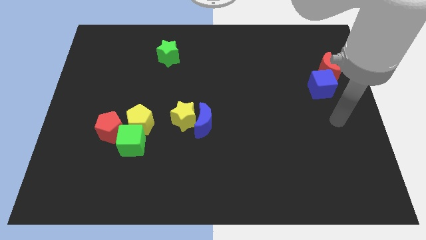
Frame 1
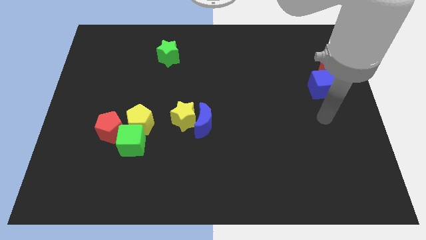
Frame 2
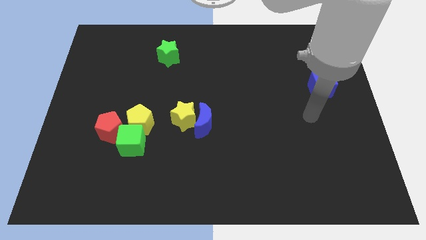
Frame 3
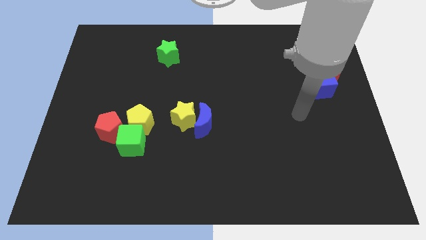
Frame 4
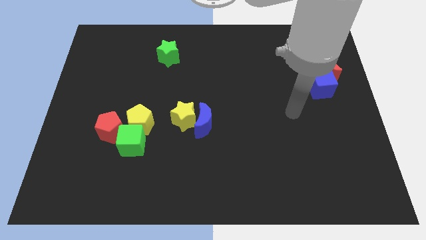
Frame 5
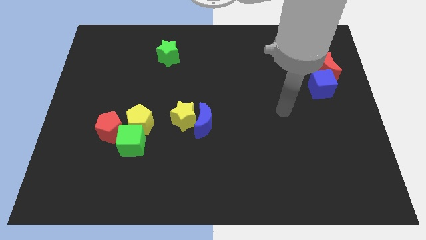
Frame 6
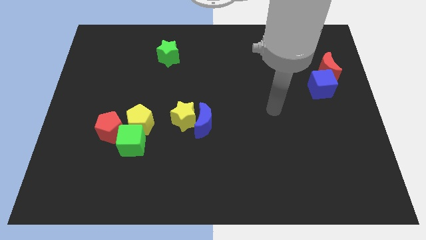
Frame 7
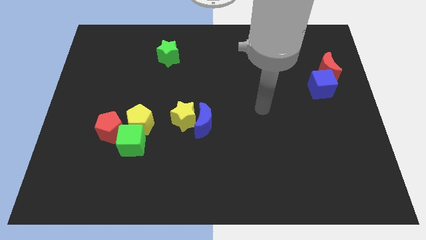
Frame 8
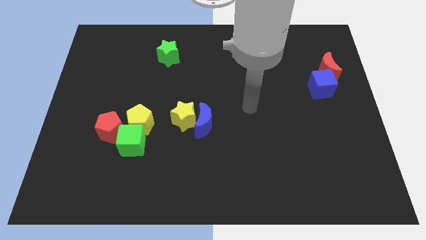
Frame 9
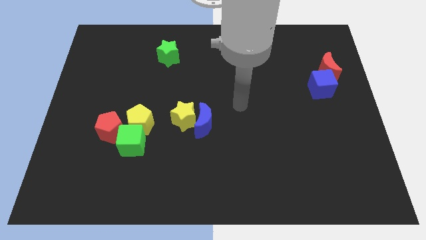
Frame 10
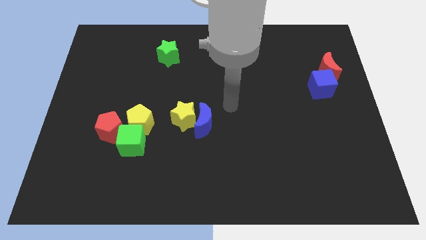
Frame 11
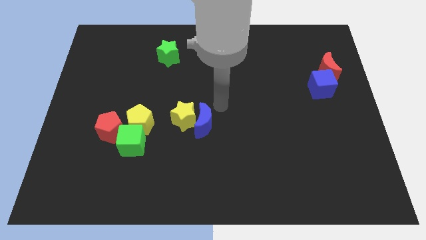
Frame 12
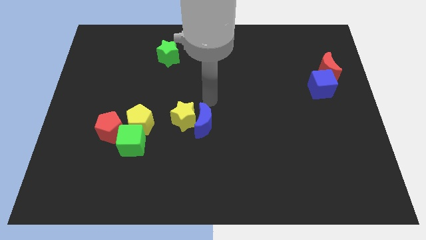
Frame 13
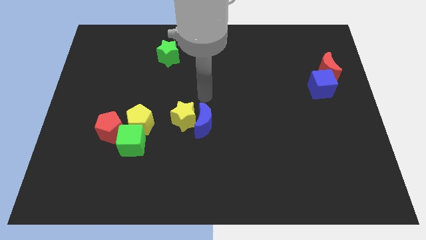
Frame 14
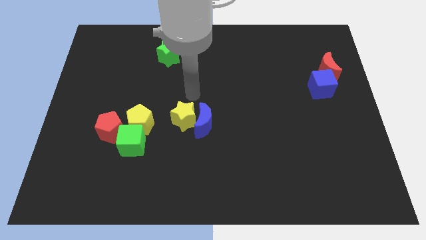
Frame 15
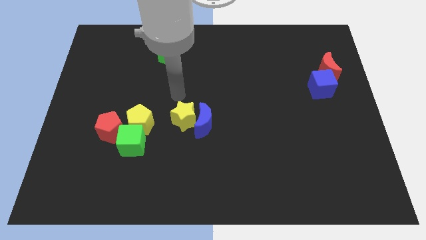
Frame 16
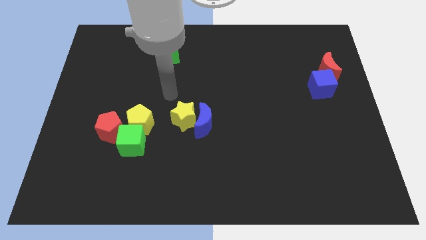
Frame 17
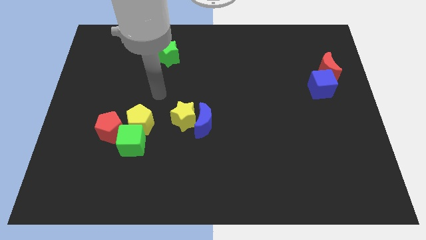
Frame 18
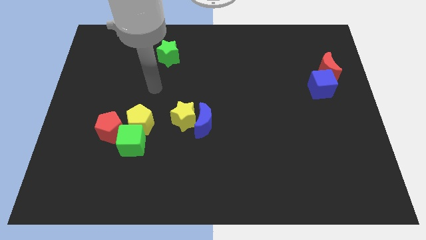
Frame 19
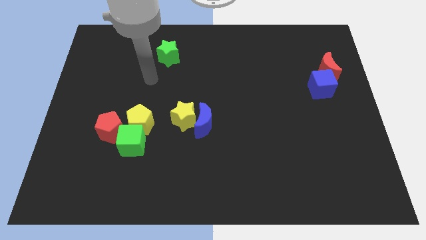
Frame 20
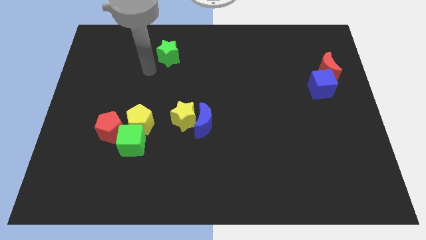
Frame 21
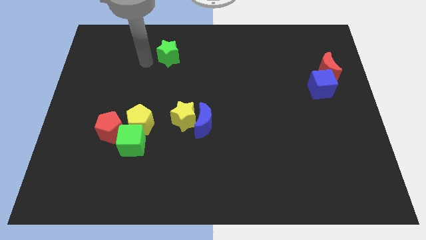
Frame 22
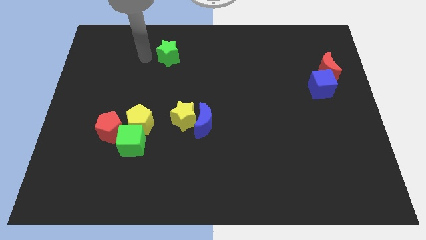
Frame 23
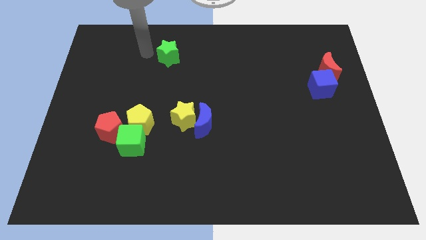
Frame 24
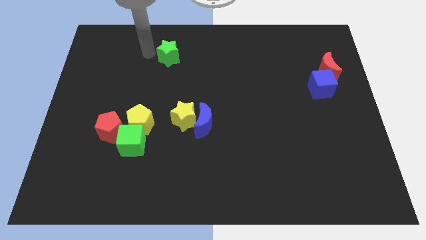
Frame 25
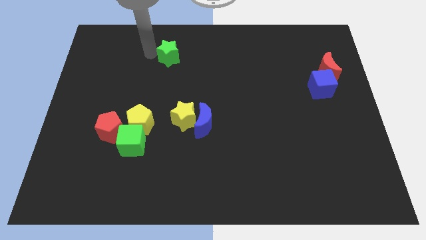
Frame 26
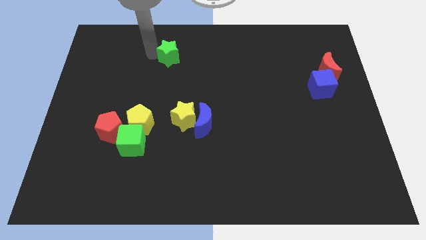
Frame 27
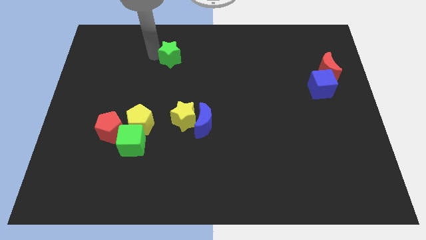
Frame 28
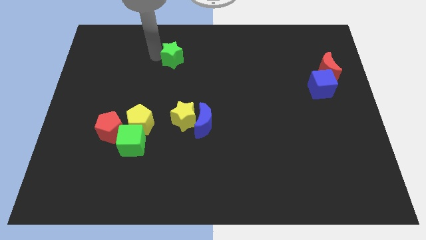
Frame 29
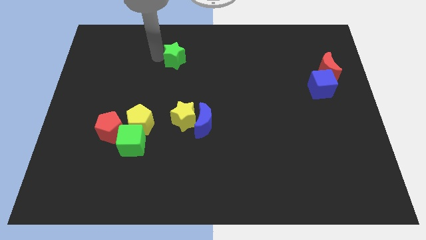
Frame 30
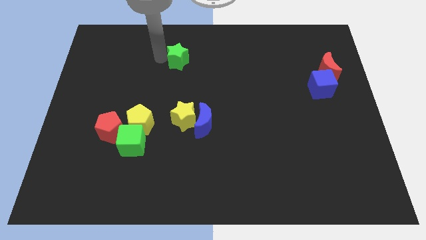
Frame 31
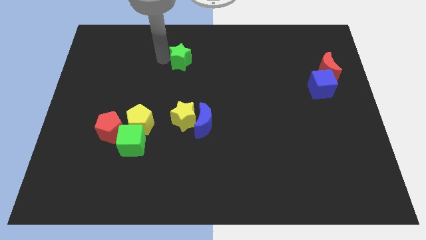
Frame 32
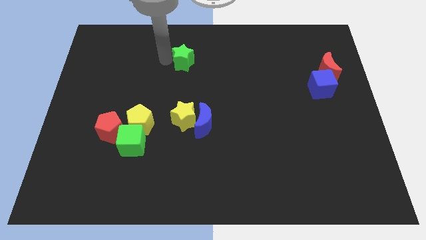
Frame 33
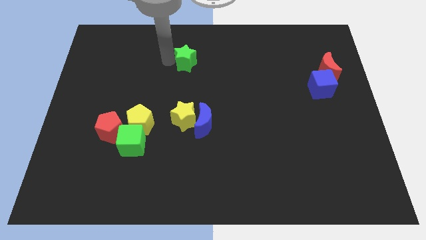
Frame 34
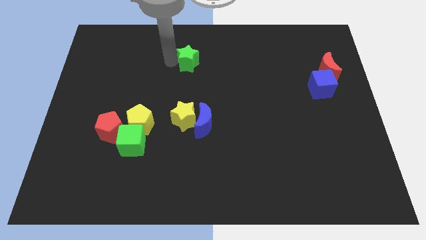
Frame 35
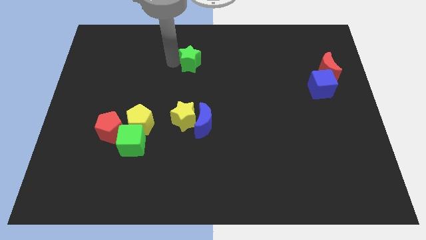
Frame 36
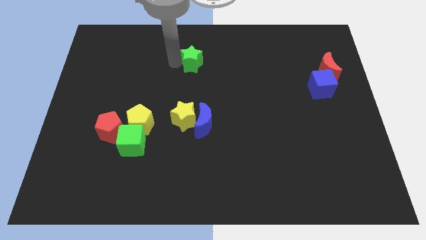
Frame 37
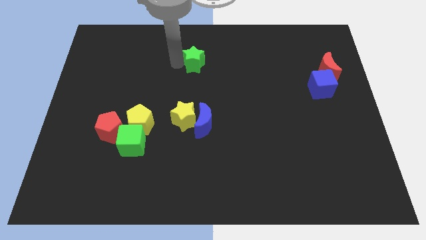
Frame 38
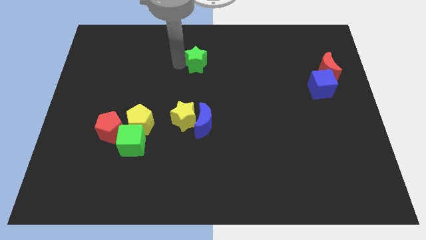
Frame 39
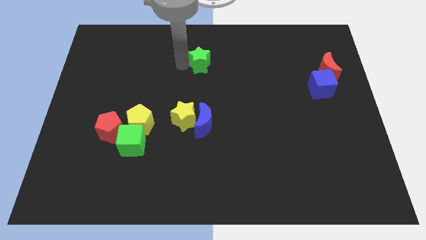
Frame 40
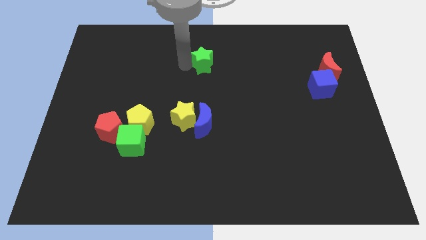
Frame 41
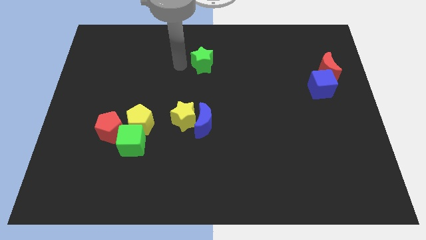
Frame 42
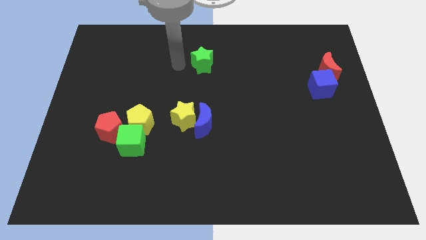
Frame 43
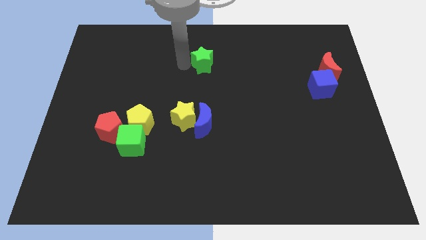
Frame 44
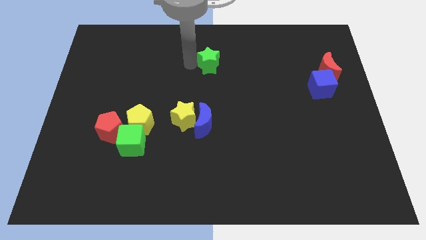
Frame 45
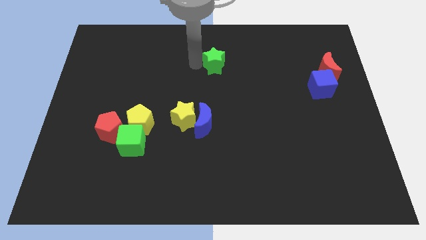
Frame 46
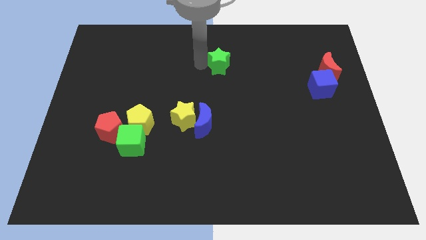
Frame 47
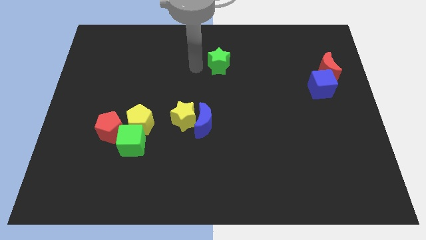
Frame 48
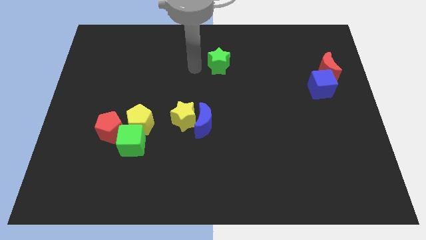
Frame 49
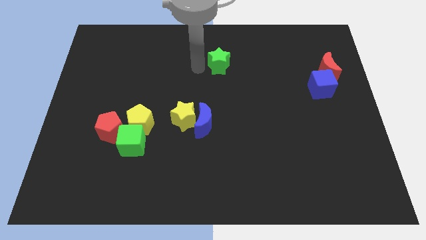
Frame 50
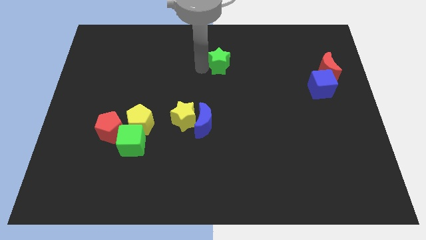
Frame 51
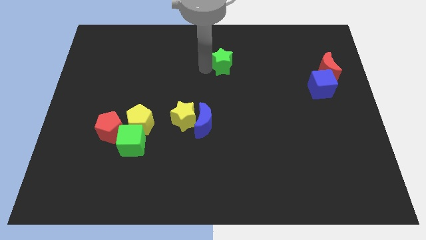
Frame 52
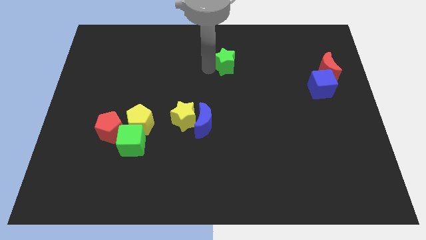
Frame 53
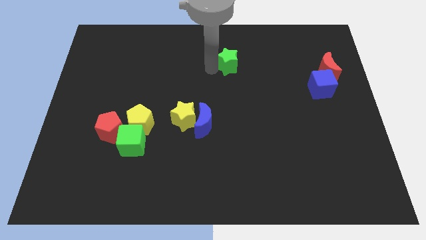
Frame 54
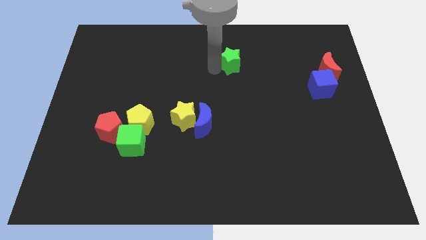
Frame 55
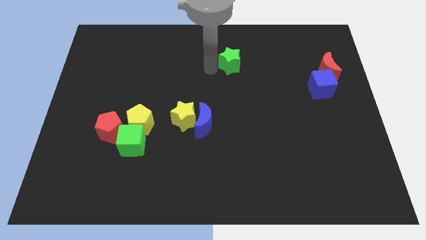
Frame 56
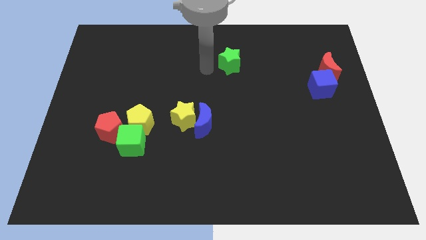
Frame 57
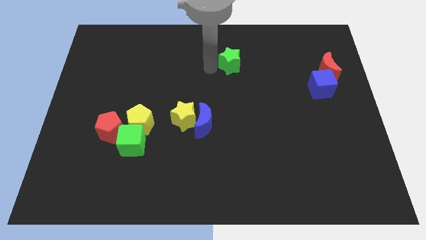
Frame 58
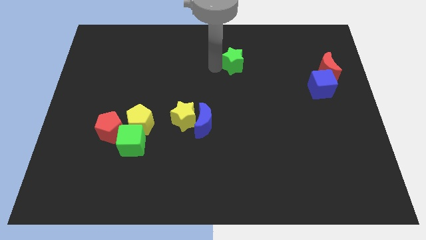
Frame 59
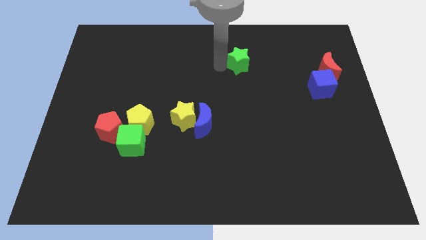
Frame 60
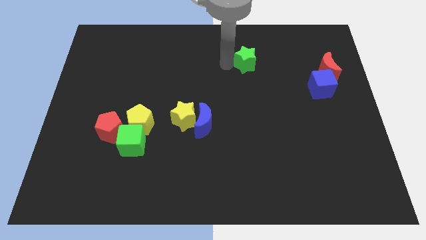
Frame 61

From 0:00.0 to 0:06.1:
slide the green star to the right

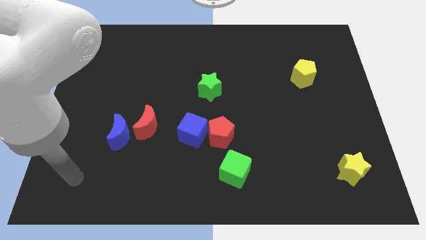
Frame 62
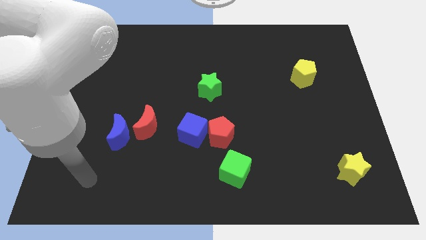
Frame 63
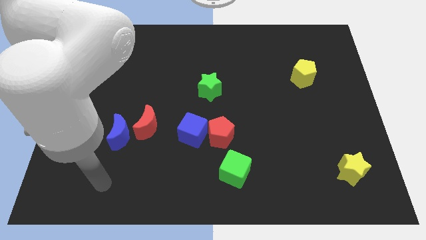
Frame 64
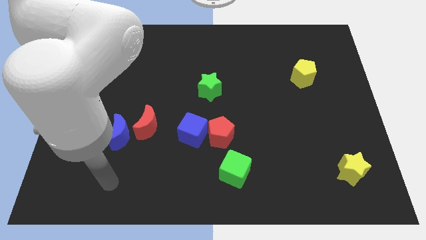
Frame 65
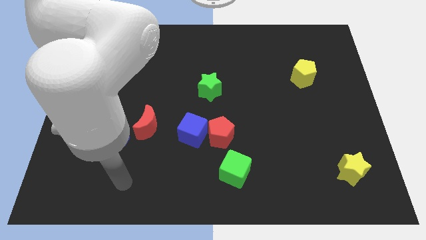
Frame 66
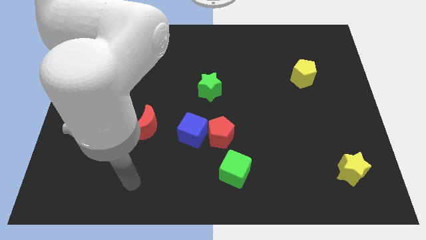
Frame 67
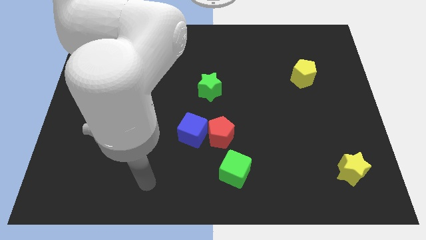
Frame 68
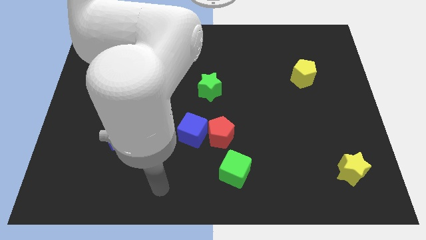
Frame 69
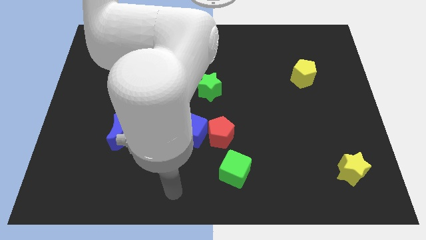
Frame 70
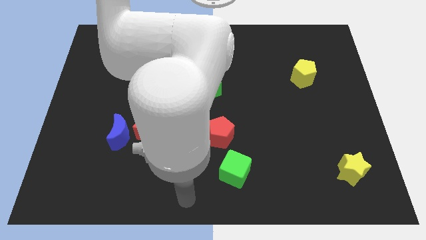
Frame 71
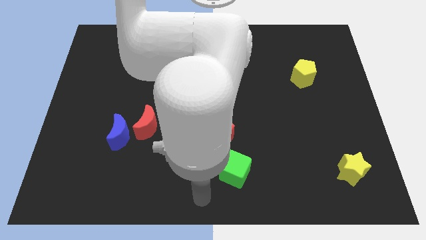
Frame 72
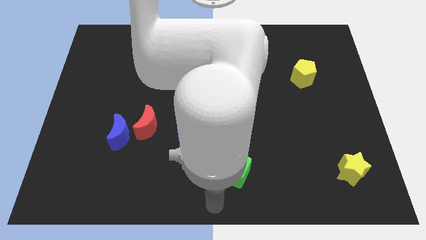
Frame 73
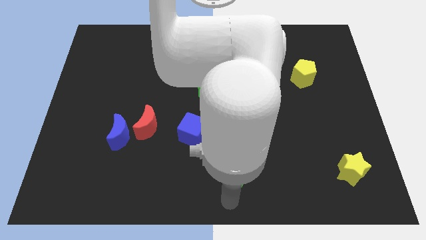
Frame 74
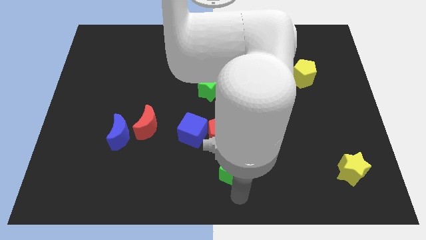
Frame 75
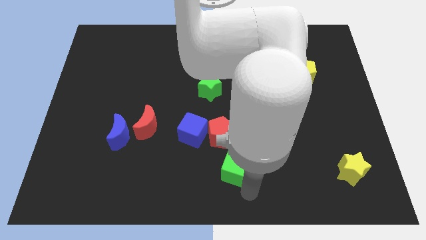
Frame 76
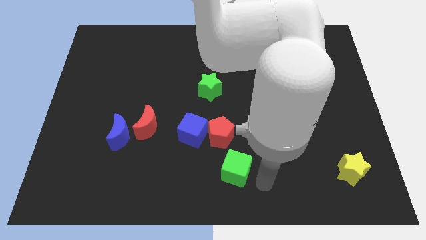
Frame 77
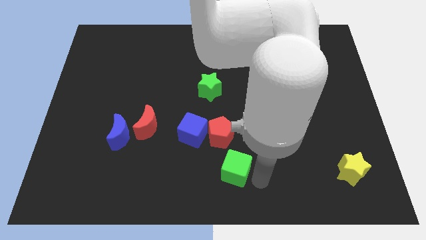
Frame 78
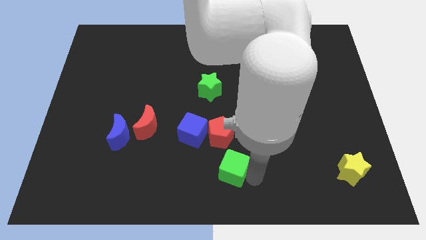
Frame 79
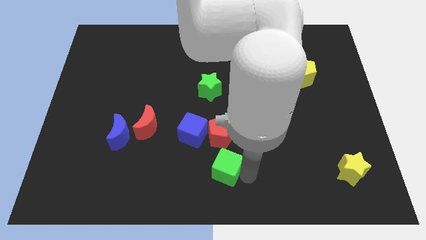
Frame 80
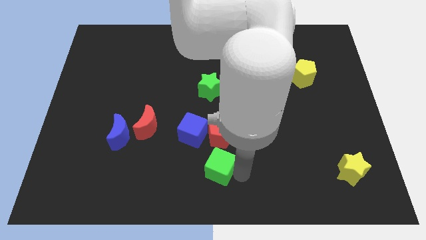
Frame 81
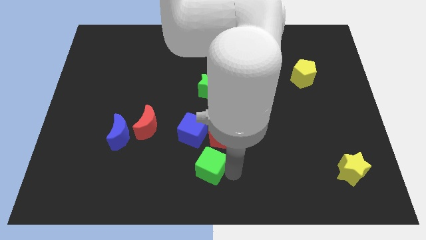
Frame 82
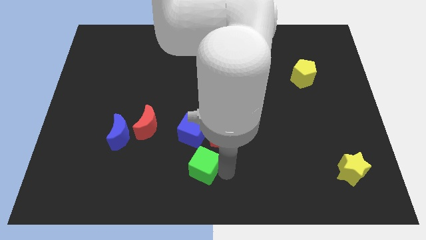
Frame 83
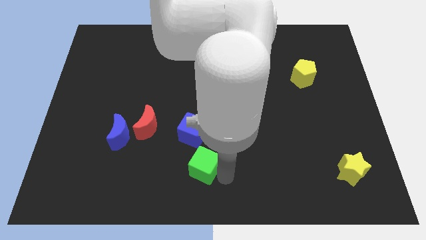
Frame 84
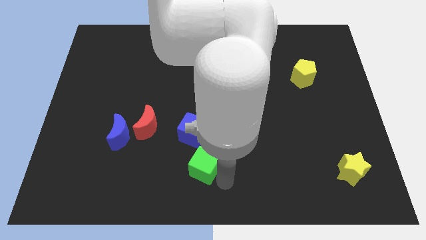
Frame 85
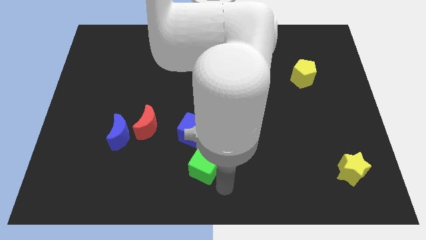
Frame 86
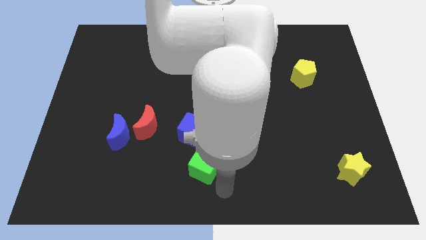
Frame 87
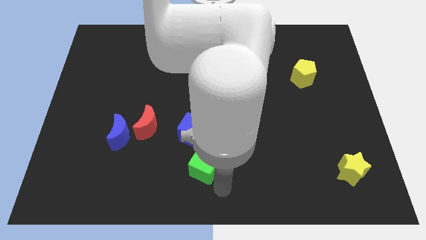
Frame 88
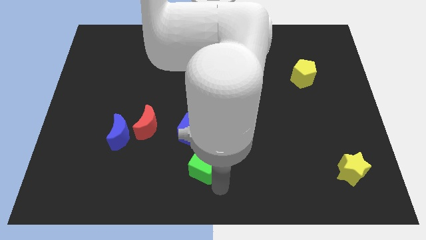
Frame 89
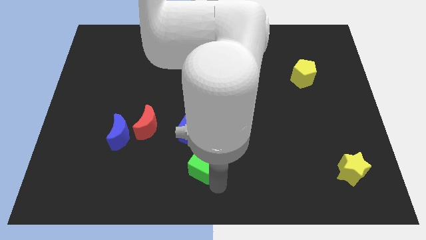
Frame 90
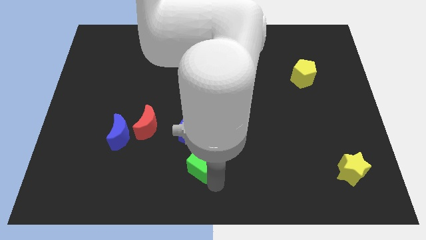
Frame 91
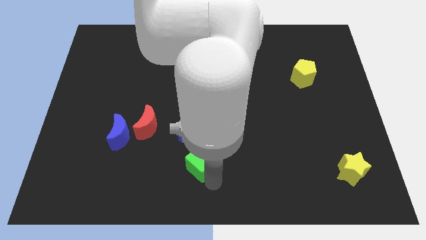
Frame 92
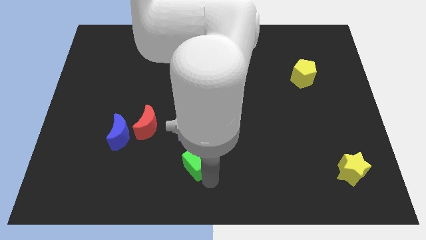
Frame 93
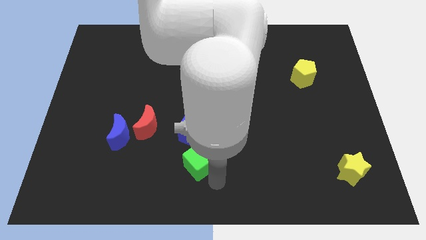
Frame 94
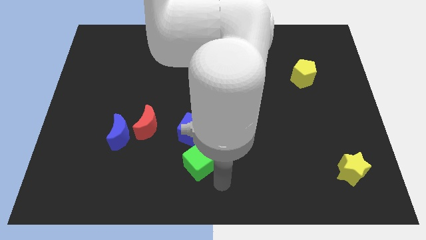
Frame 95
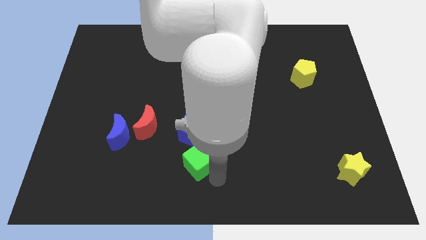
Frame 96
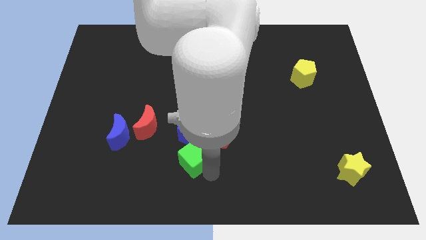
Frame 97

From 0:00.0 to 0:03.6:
push the green cube a little bit up and to the left diagonally
